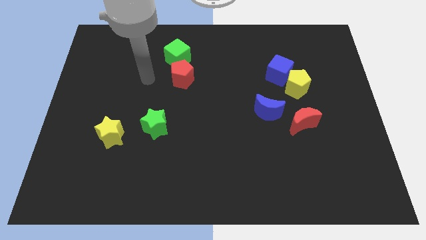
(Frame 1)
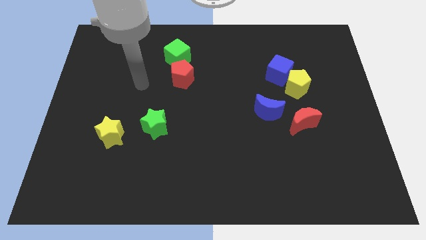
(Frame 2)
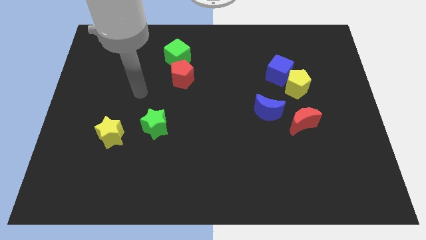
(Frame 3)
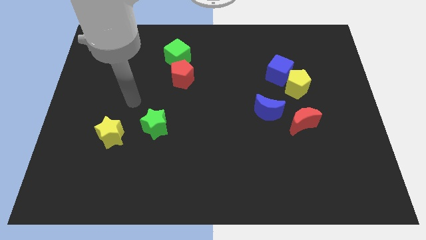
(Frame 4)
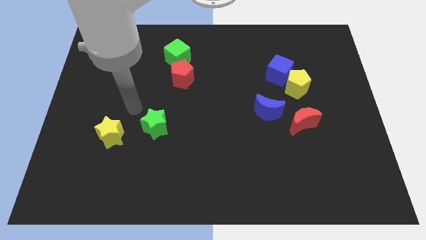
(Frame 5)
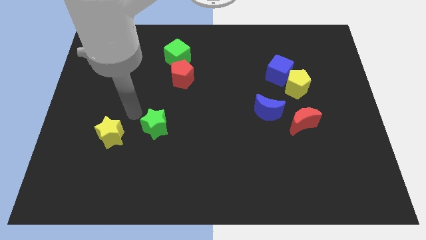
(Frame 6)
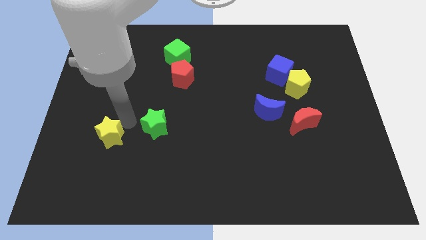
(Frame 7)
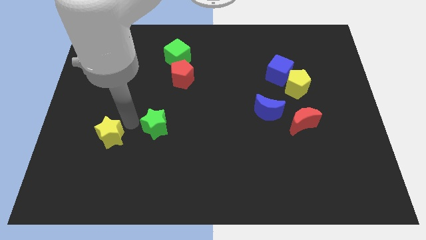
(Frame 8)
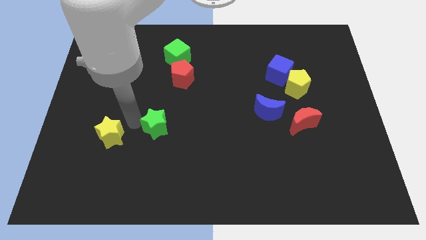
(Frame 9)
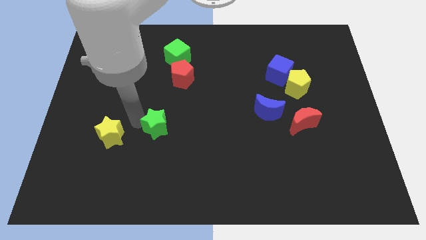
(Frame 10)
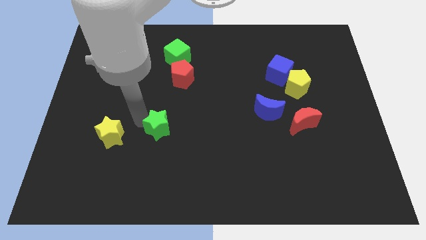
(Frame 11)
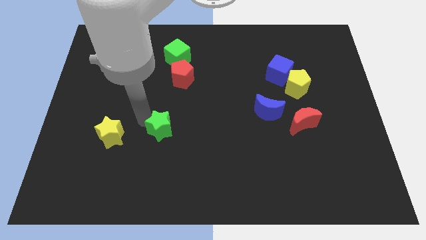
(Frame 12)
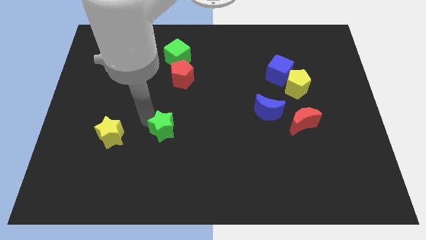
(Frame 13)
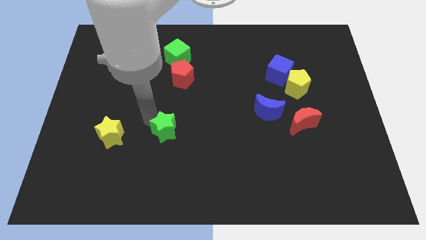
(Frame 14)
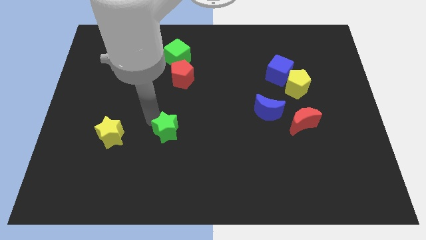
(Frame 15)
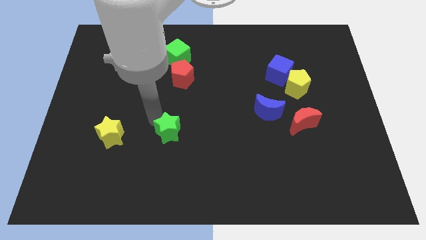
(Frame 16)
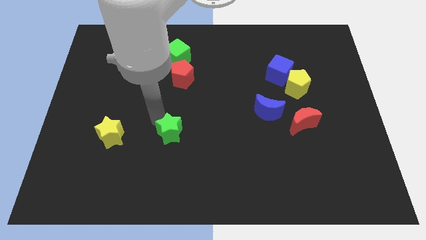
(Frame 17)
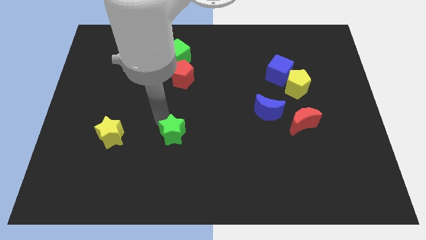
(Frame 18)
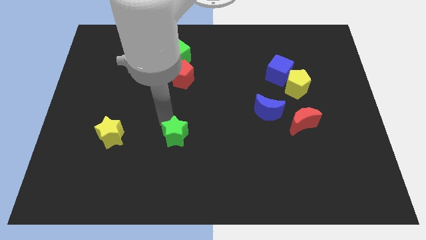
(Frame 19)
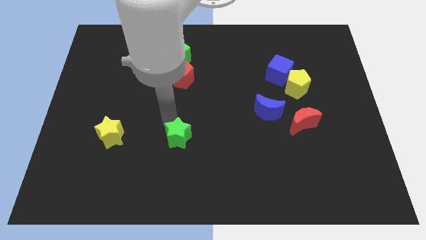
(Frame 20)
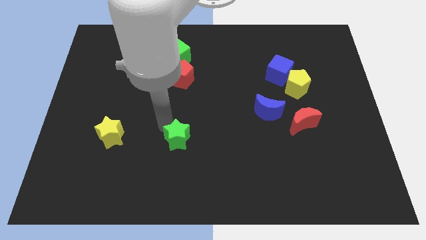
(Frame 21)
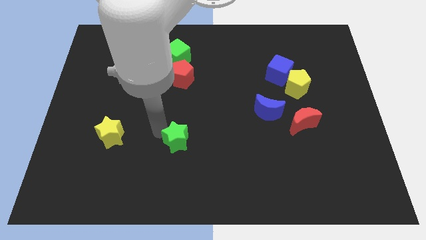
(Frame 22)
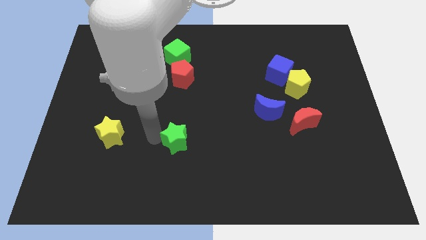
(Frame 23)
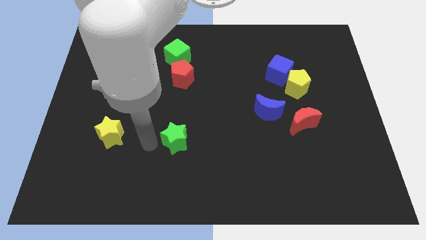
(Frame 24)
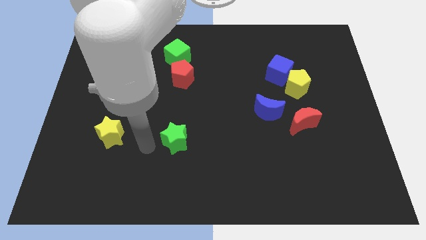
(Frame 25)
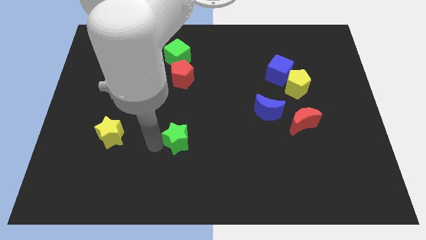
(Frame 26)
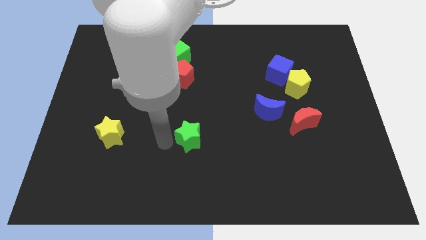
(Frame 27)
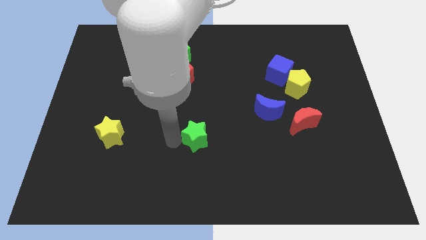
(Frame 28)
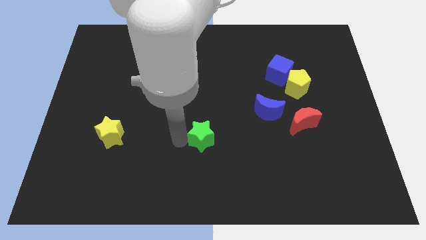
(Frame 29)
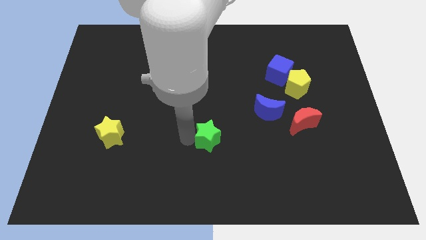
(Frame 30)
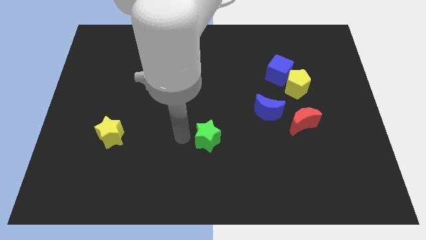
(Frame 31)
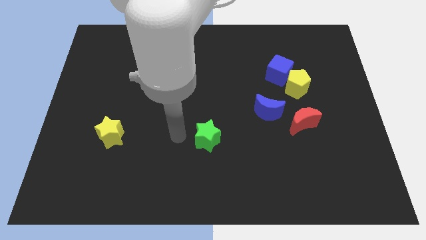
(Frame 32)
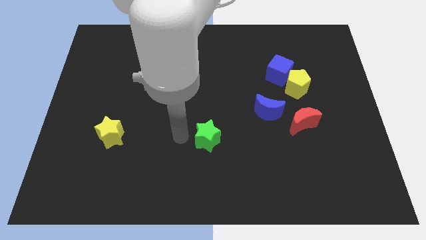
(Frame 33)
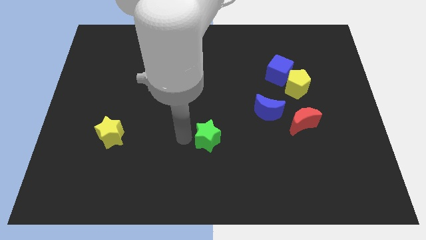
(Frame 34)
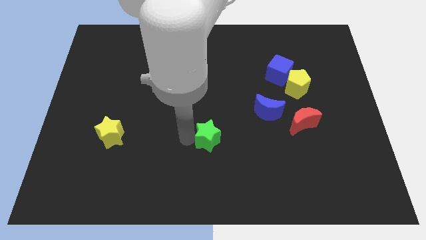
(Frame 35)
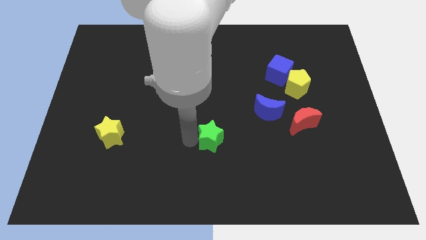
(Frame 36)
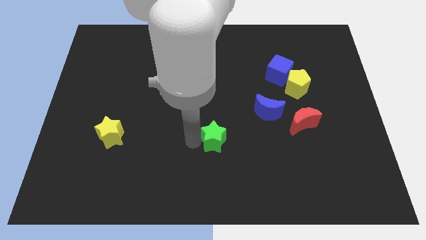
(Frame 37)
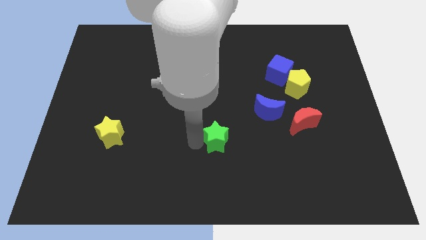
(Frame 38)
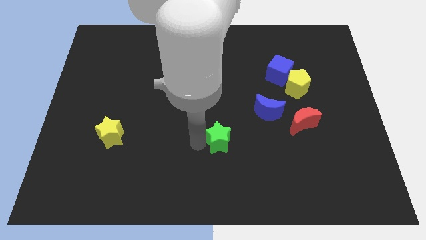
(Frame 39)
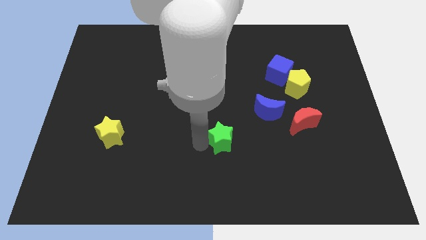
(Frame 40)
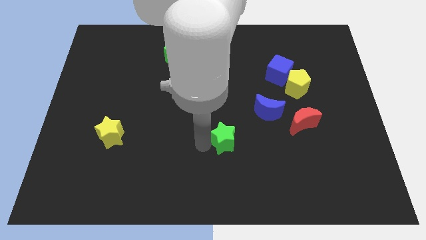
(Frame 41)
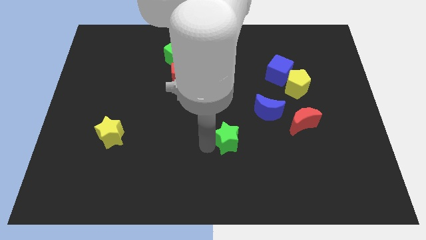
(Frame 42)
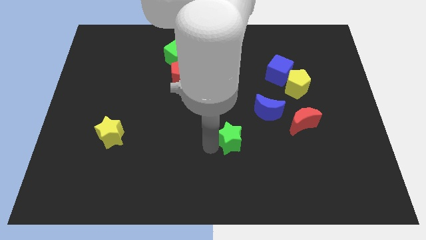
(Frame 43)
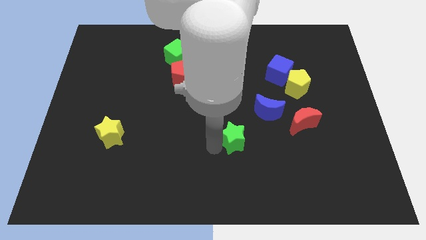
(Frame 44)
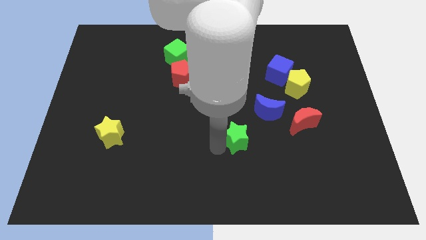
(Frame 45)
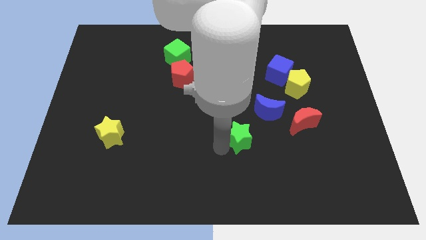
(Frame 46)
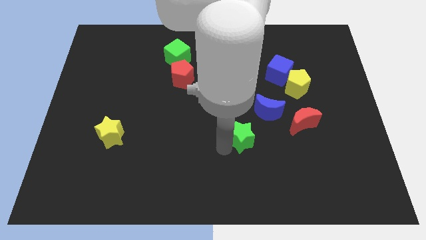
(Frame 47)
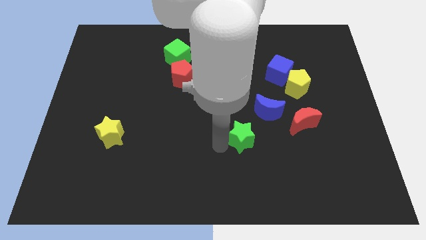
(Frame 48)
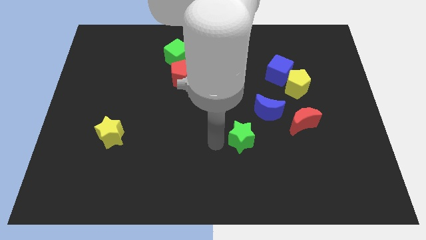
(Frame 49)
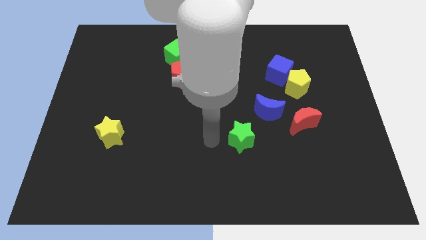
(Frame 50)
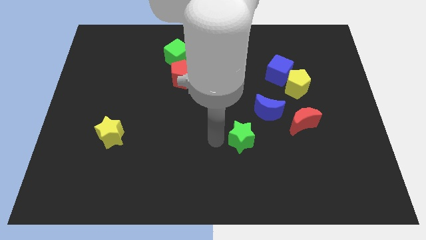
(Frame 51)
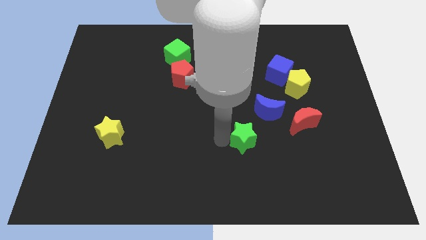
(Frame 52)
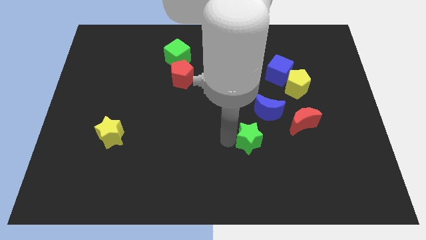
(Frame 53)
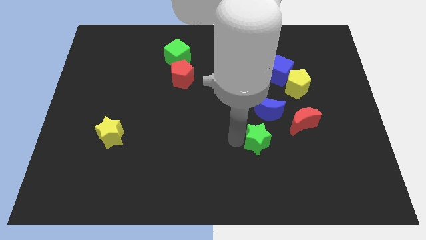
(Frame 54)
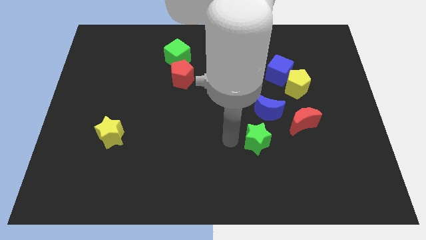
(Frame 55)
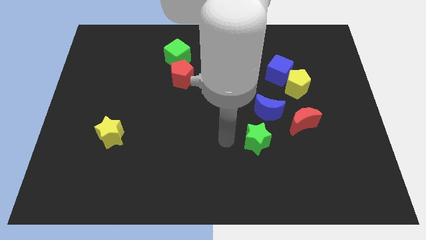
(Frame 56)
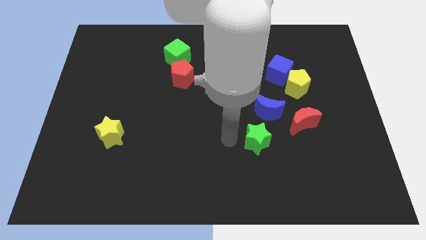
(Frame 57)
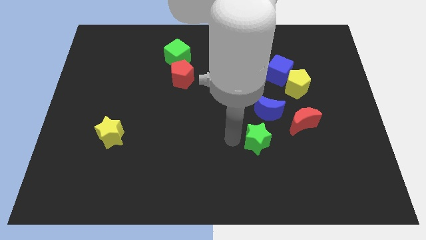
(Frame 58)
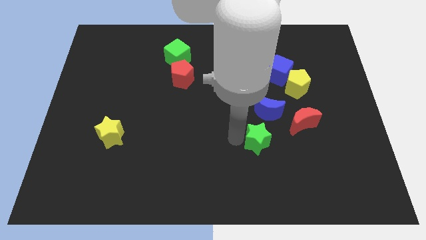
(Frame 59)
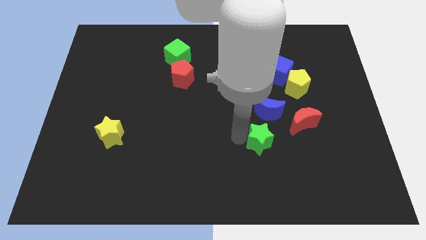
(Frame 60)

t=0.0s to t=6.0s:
put the green star to the bottom left side of the red moon

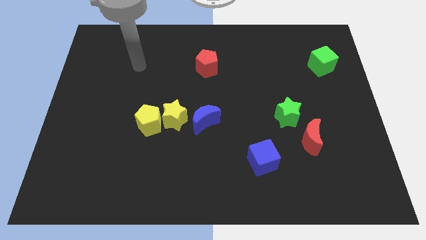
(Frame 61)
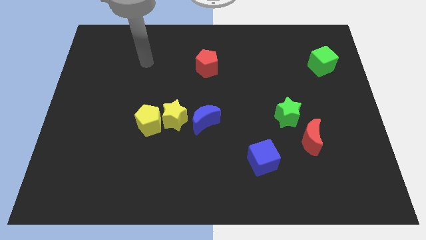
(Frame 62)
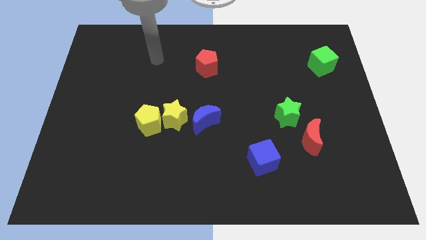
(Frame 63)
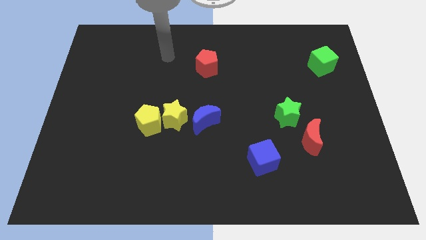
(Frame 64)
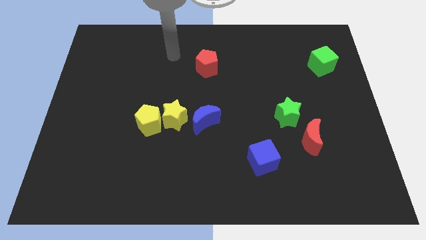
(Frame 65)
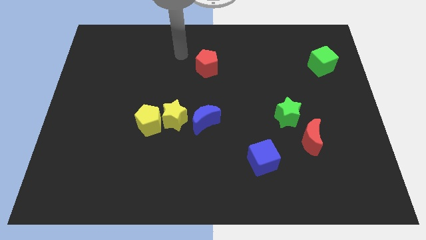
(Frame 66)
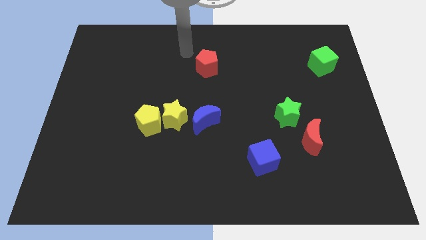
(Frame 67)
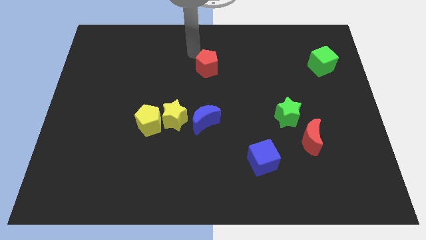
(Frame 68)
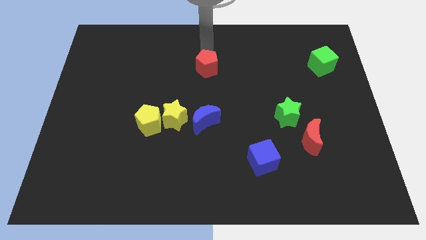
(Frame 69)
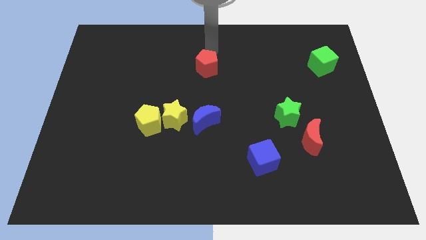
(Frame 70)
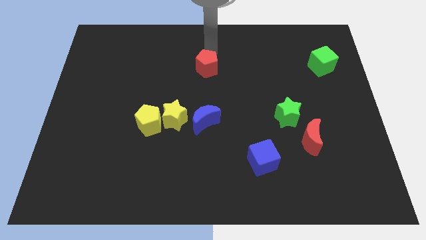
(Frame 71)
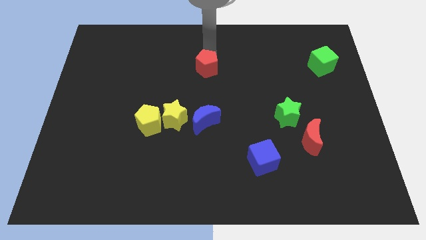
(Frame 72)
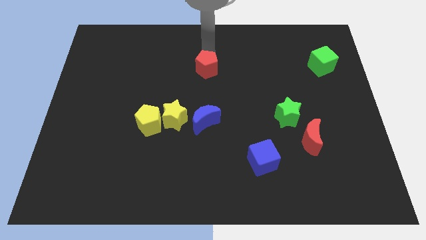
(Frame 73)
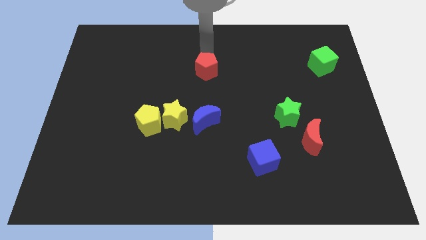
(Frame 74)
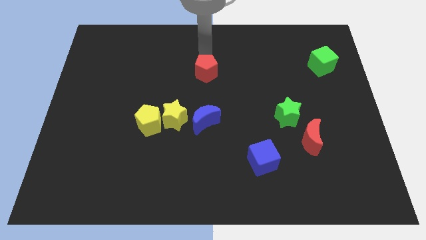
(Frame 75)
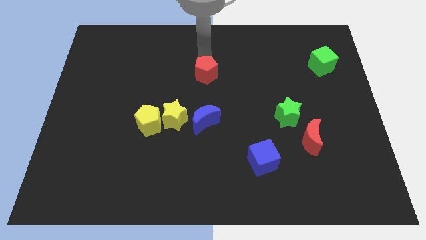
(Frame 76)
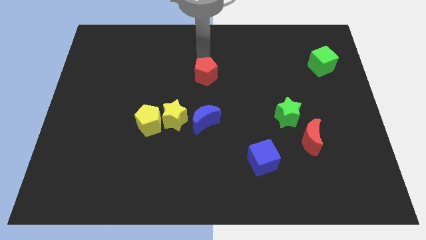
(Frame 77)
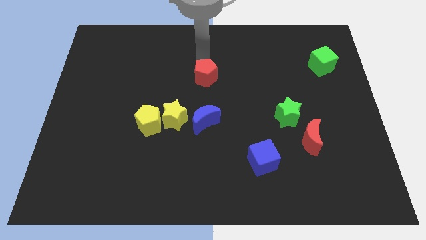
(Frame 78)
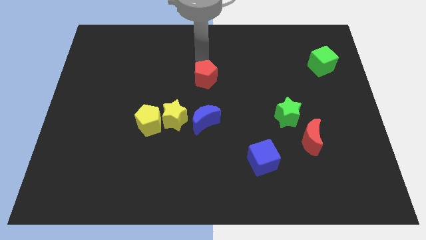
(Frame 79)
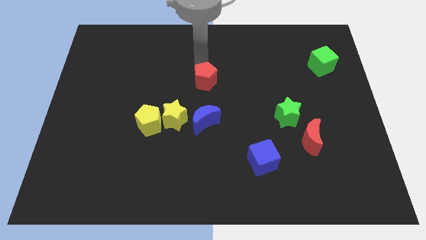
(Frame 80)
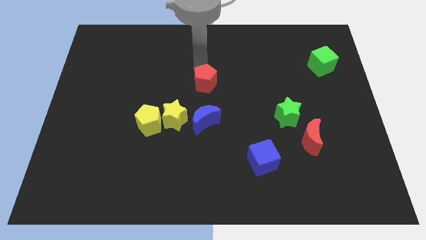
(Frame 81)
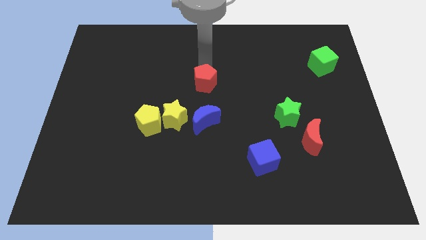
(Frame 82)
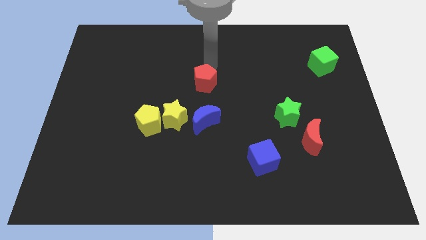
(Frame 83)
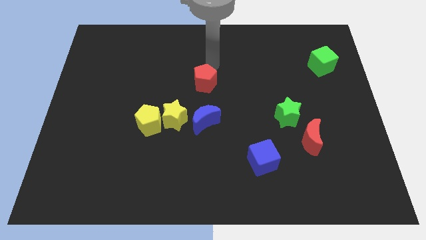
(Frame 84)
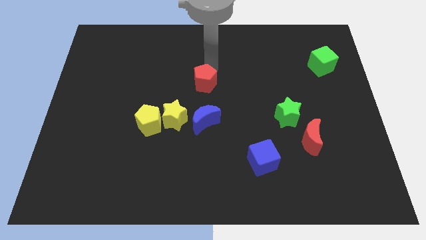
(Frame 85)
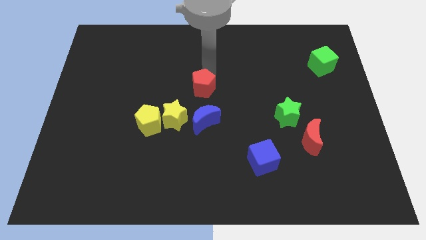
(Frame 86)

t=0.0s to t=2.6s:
put the red pentagon to the top right side of the yellow star
